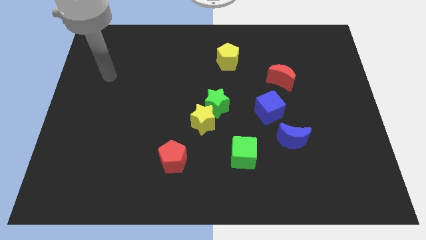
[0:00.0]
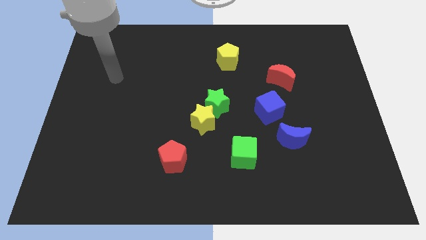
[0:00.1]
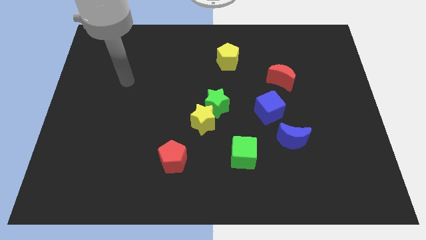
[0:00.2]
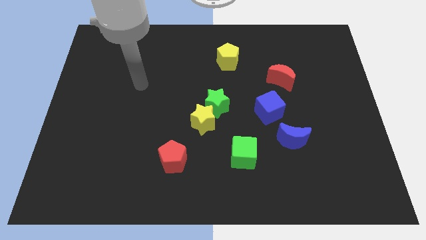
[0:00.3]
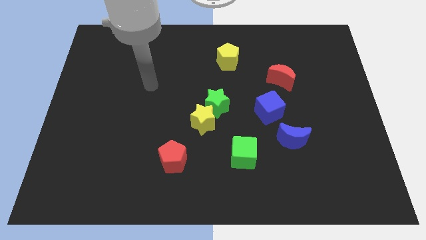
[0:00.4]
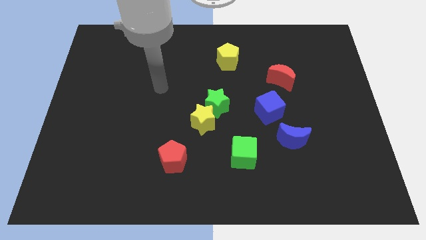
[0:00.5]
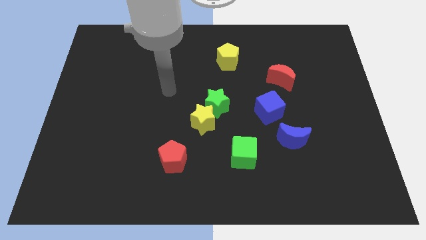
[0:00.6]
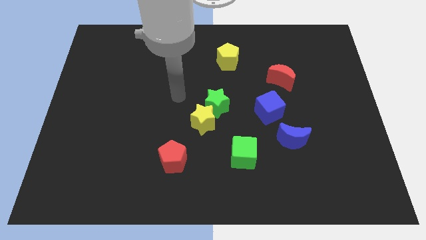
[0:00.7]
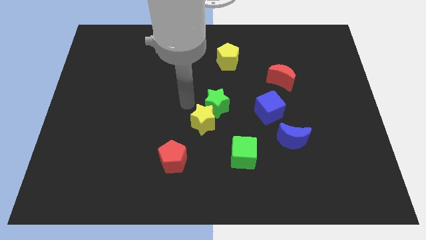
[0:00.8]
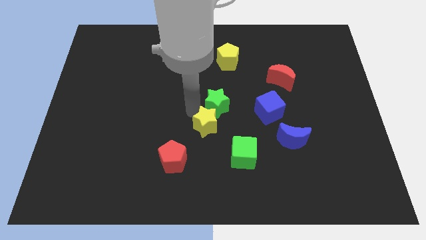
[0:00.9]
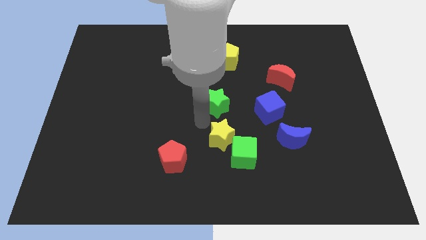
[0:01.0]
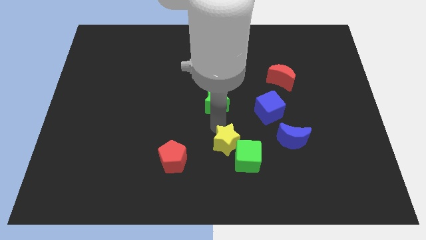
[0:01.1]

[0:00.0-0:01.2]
move the green star away from the yellow star

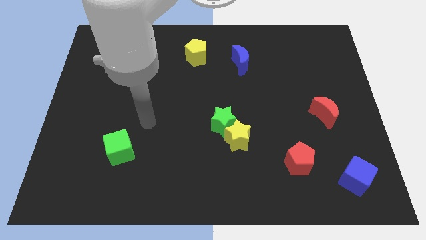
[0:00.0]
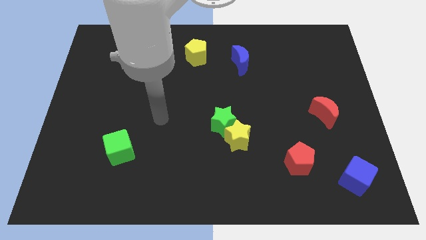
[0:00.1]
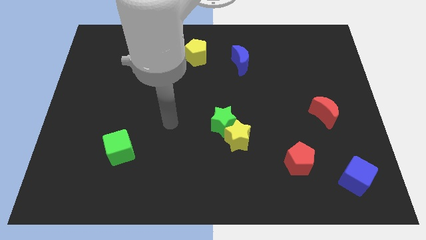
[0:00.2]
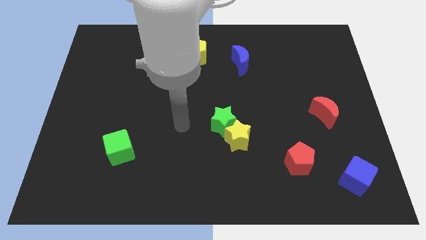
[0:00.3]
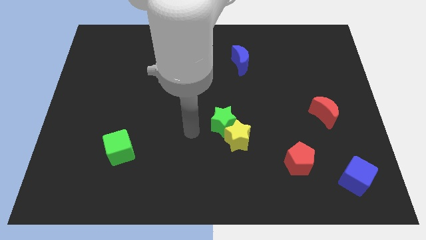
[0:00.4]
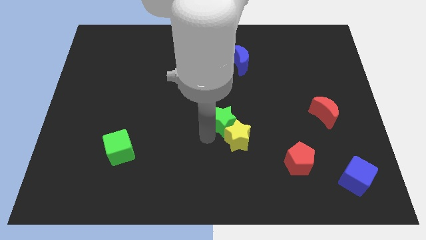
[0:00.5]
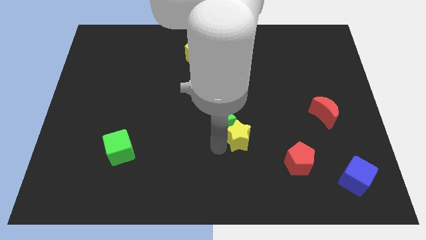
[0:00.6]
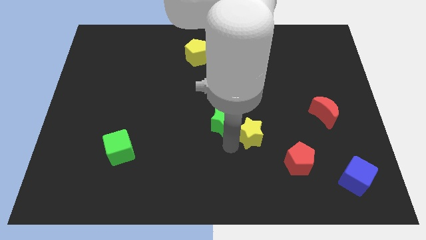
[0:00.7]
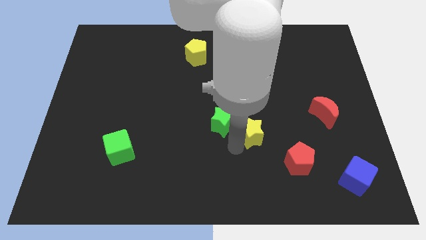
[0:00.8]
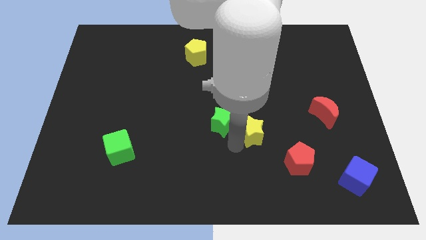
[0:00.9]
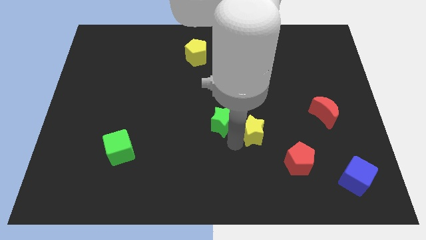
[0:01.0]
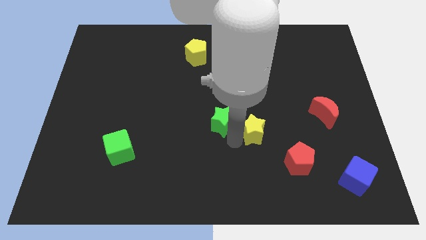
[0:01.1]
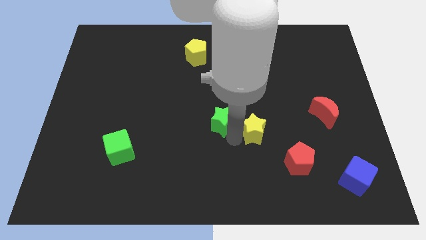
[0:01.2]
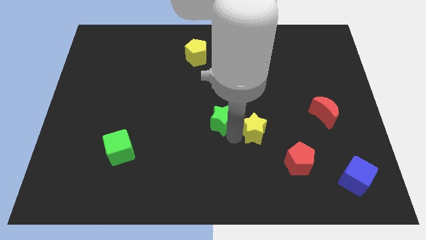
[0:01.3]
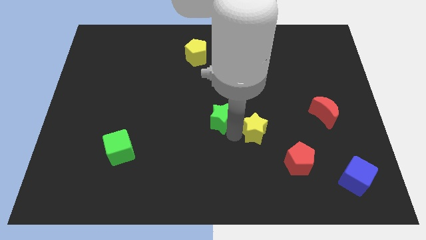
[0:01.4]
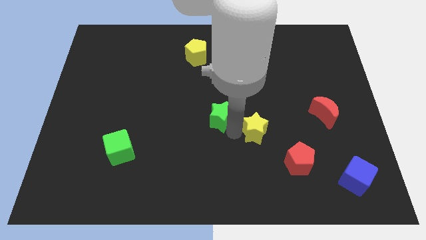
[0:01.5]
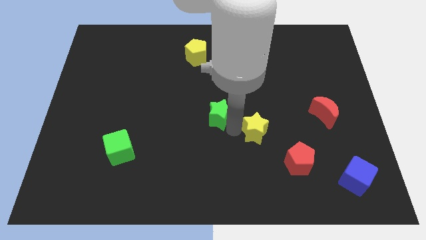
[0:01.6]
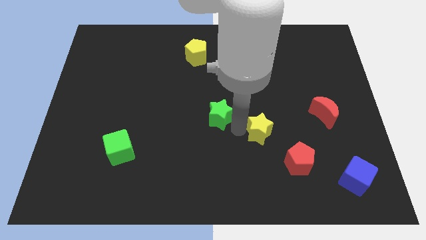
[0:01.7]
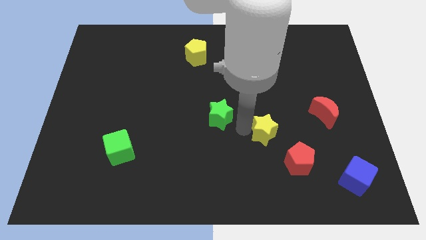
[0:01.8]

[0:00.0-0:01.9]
pull the green star apart from the yellow star

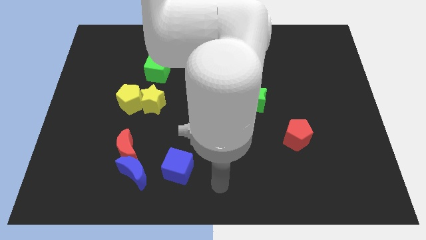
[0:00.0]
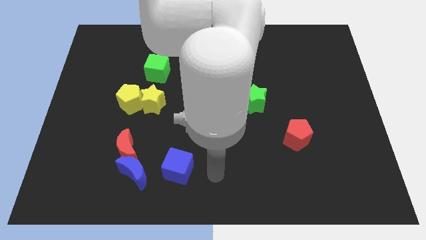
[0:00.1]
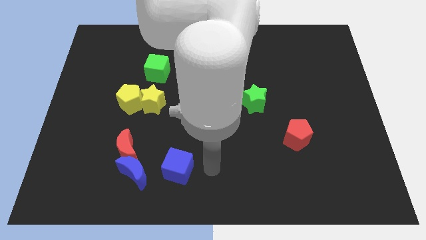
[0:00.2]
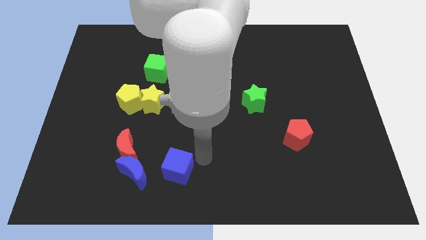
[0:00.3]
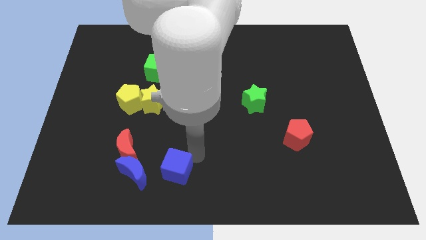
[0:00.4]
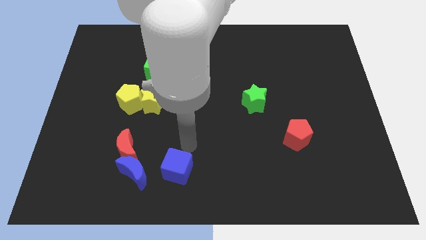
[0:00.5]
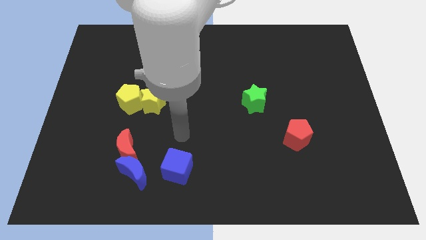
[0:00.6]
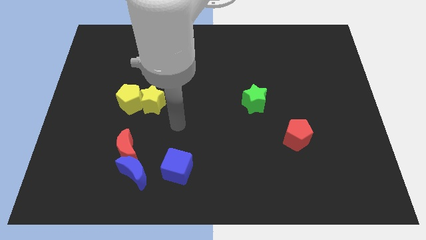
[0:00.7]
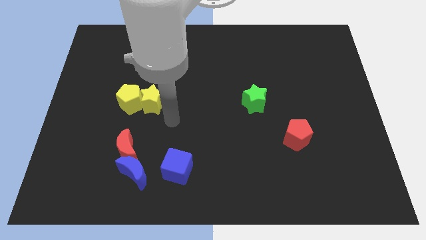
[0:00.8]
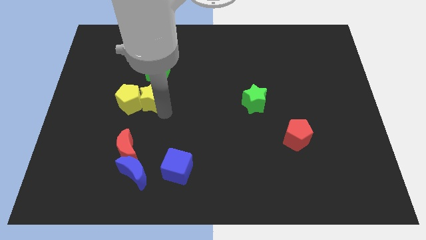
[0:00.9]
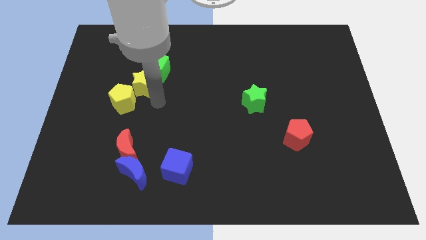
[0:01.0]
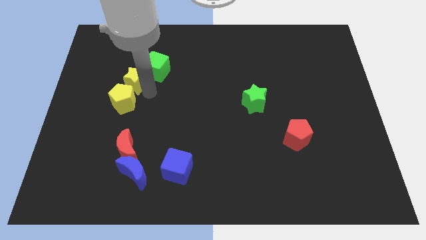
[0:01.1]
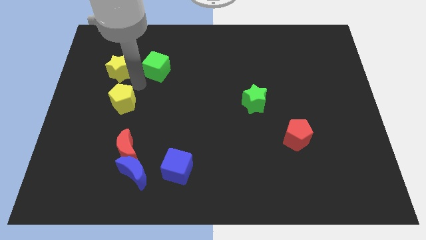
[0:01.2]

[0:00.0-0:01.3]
pull the yellow pentagon apart from the yellow star

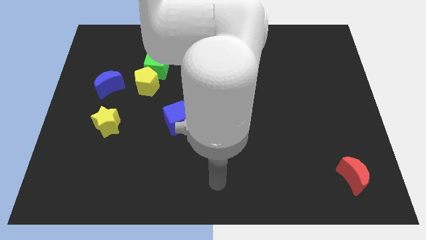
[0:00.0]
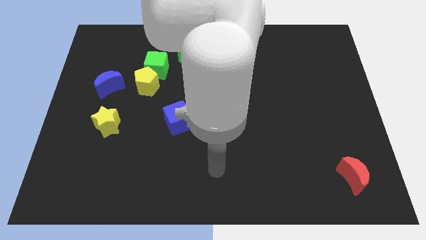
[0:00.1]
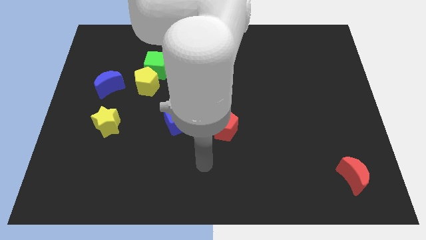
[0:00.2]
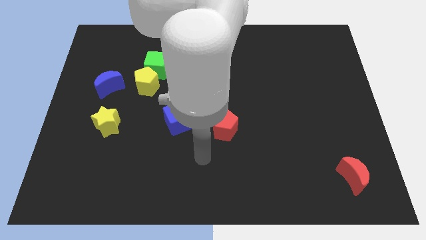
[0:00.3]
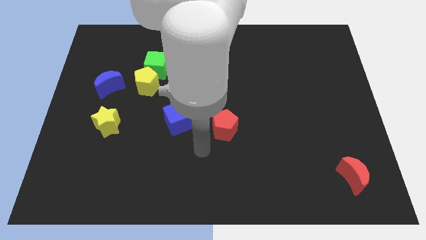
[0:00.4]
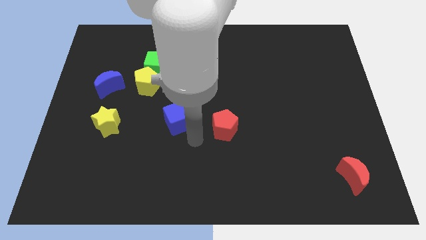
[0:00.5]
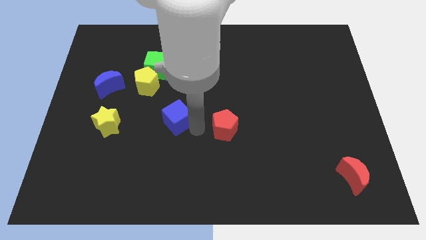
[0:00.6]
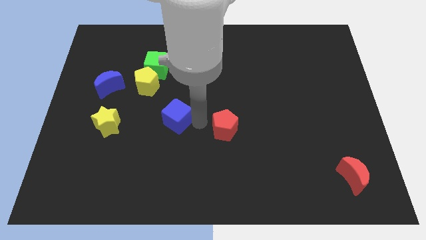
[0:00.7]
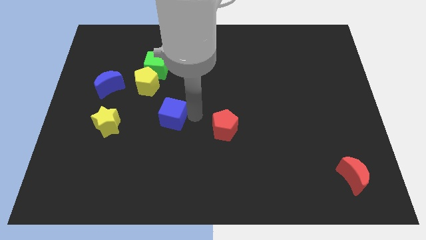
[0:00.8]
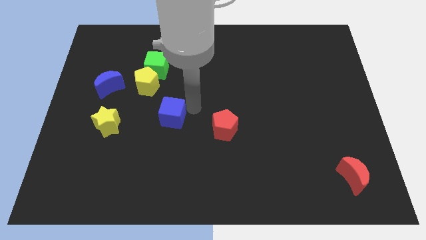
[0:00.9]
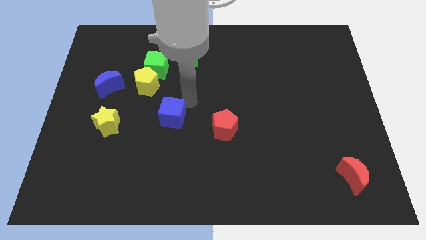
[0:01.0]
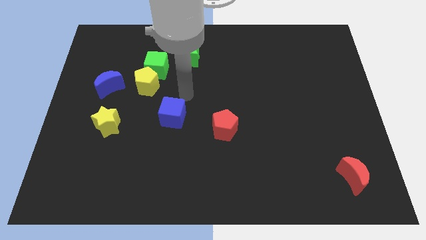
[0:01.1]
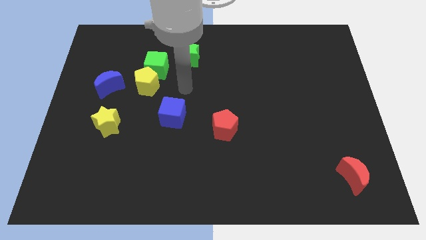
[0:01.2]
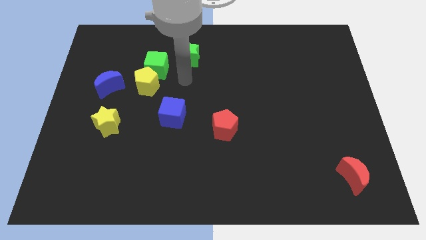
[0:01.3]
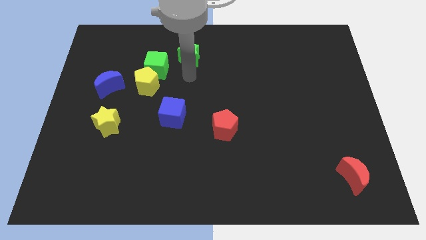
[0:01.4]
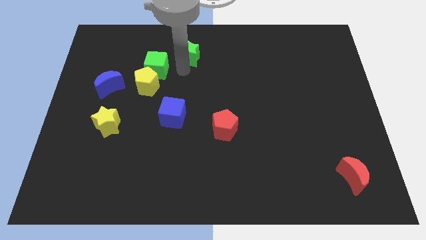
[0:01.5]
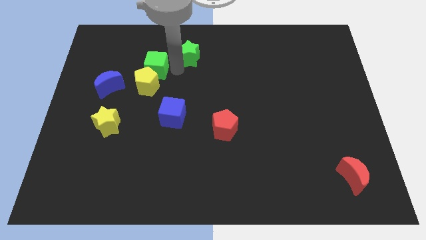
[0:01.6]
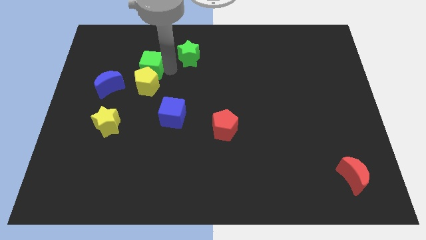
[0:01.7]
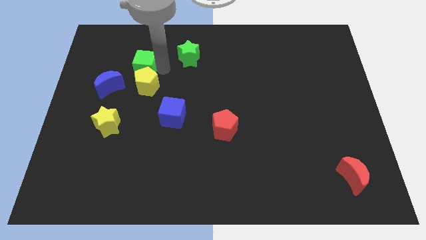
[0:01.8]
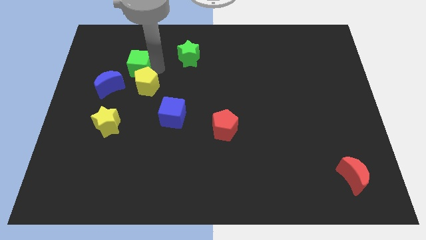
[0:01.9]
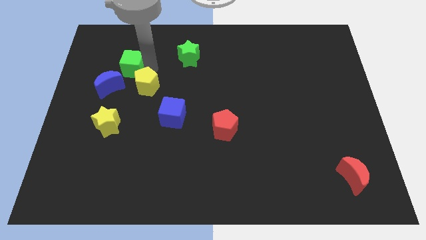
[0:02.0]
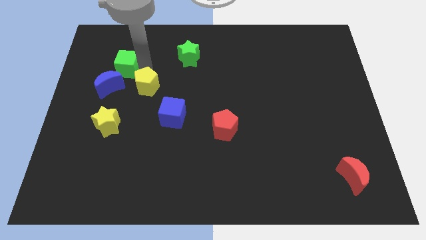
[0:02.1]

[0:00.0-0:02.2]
separate the green cube from the yellow pentagon and green star

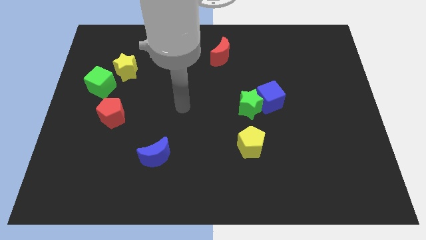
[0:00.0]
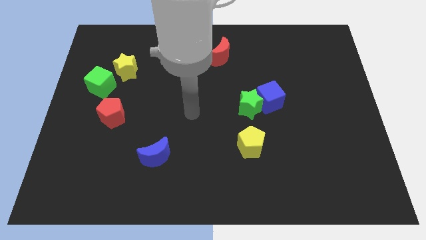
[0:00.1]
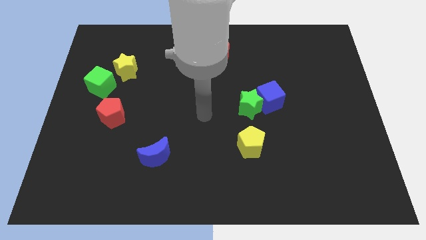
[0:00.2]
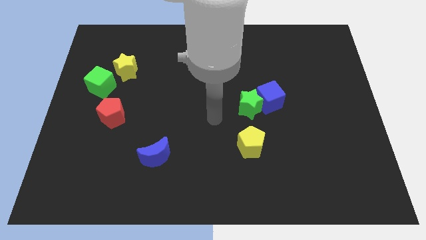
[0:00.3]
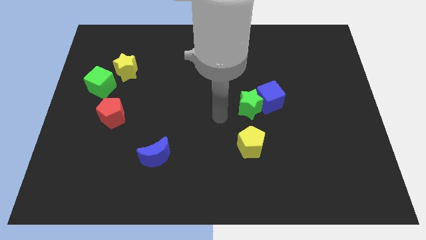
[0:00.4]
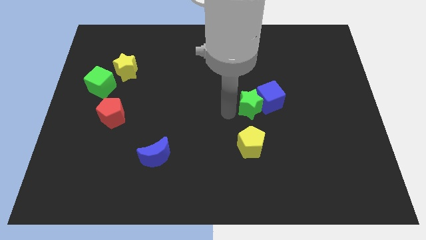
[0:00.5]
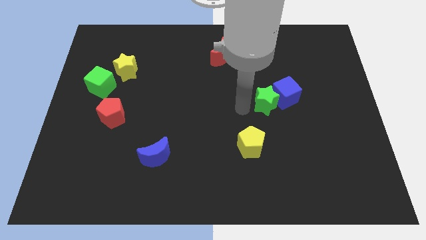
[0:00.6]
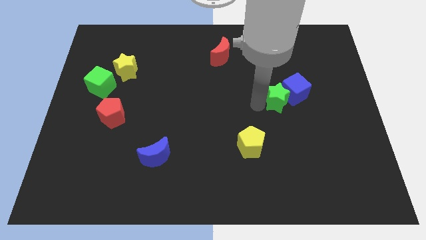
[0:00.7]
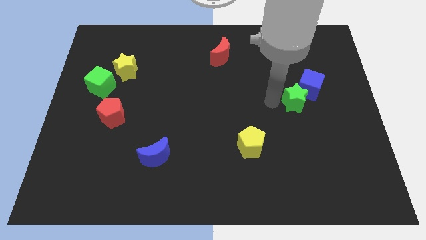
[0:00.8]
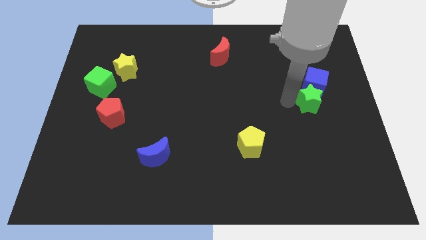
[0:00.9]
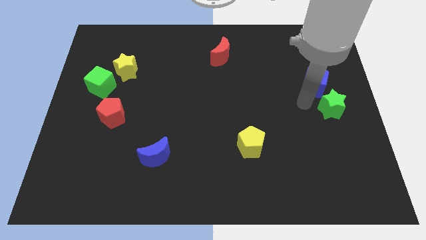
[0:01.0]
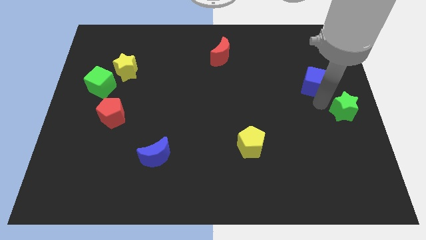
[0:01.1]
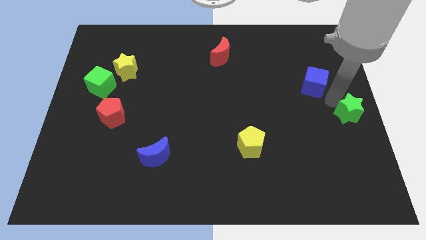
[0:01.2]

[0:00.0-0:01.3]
pull the blue cube apart from the green star

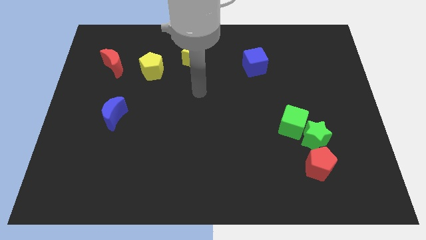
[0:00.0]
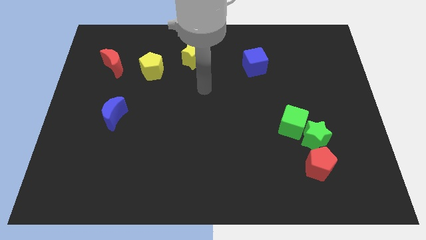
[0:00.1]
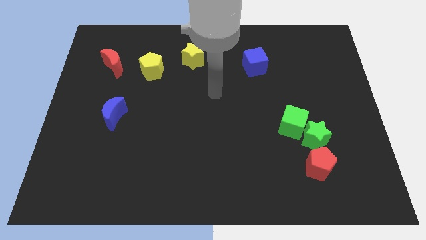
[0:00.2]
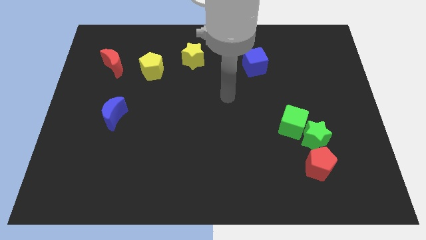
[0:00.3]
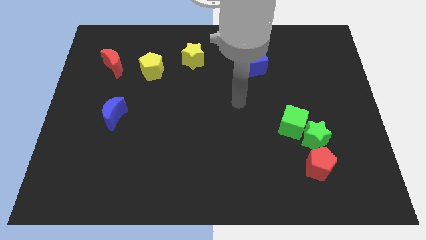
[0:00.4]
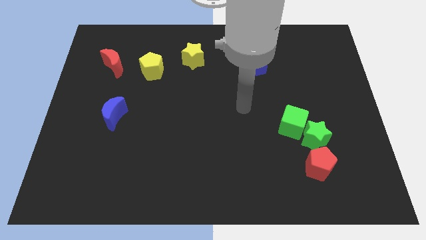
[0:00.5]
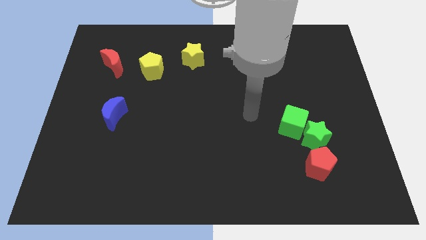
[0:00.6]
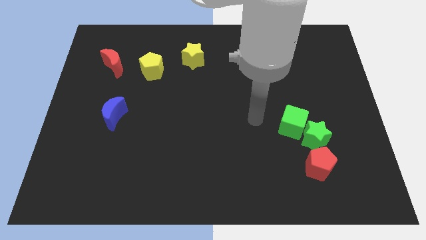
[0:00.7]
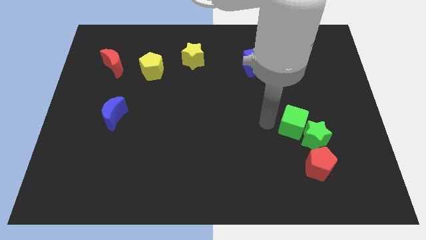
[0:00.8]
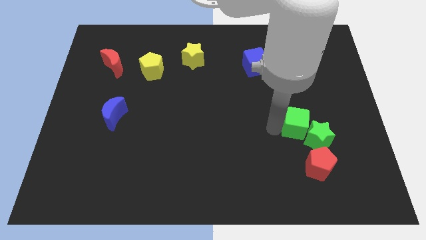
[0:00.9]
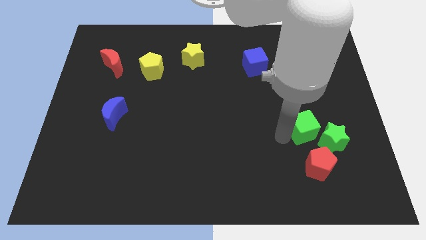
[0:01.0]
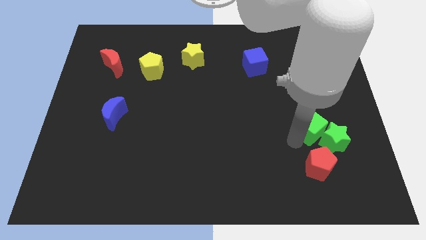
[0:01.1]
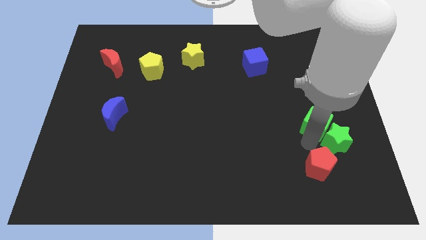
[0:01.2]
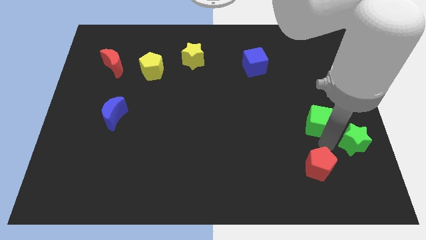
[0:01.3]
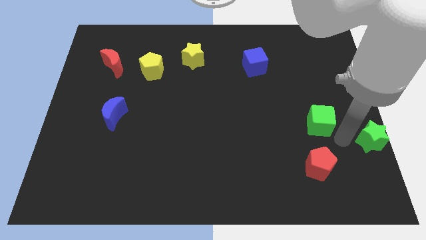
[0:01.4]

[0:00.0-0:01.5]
separate the green cube from the green star
